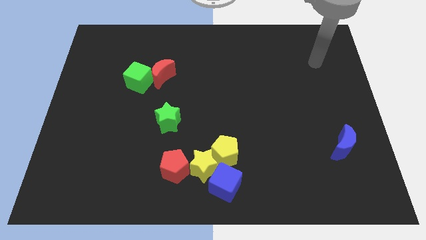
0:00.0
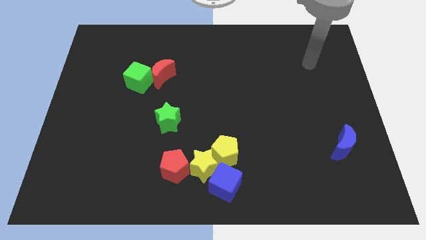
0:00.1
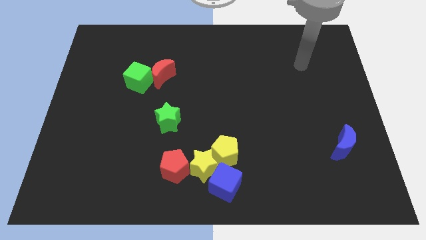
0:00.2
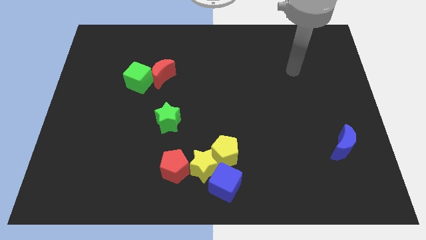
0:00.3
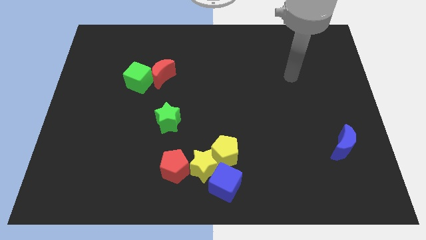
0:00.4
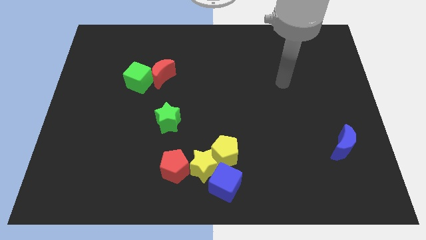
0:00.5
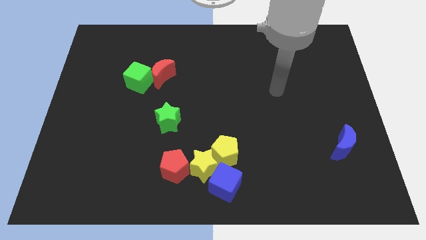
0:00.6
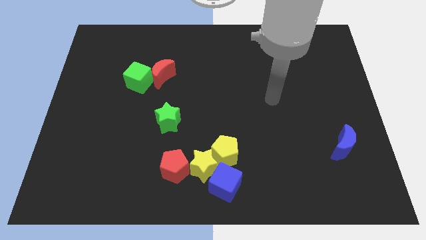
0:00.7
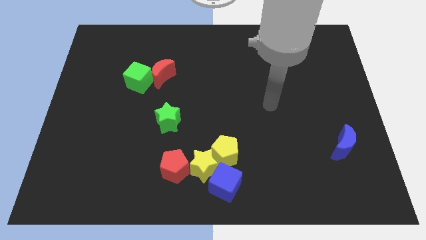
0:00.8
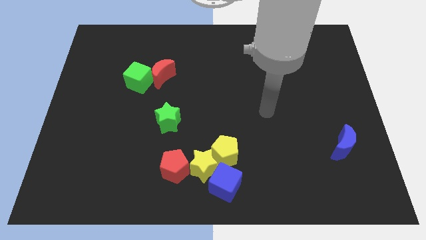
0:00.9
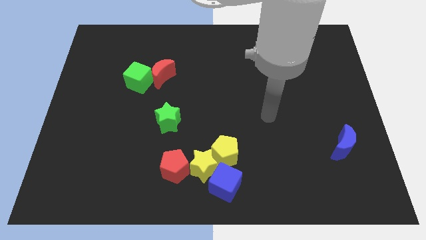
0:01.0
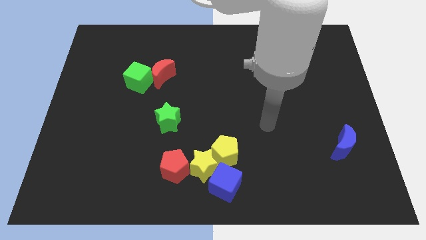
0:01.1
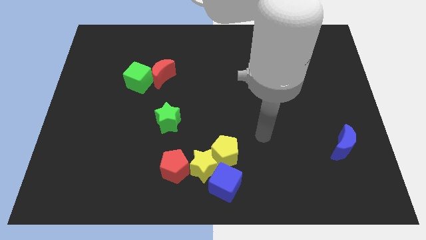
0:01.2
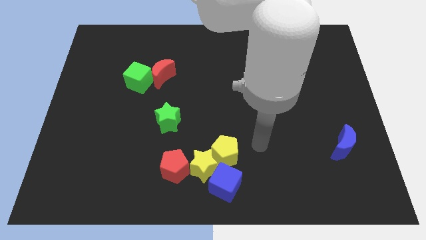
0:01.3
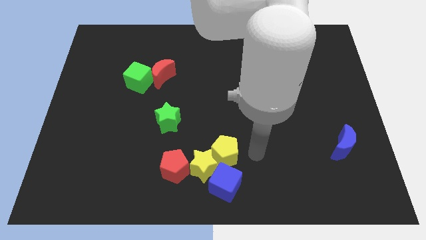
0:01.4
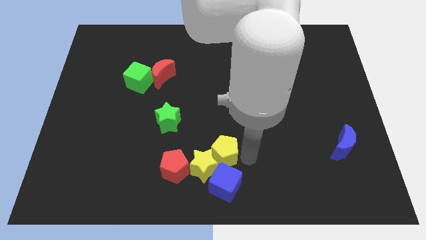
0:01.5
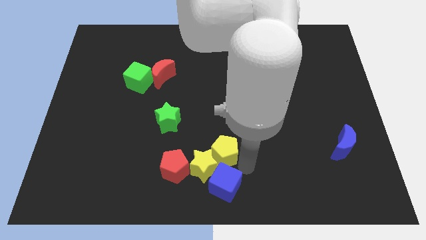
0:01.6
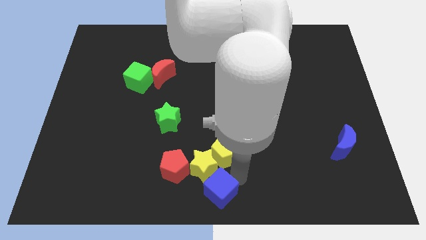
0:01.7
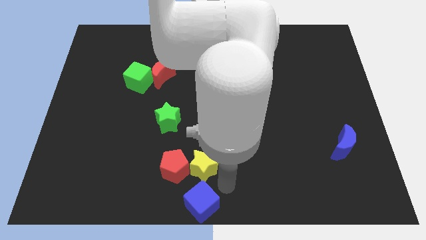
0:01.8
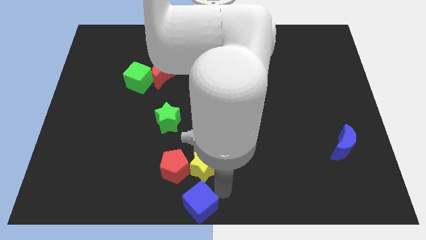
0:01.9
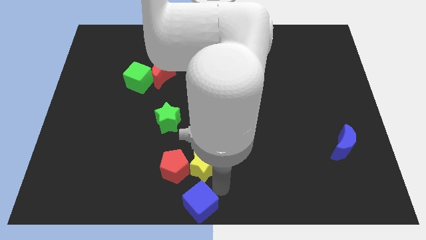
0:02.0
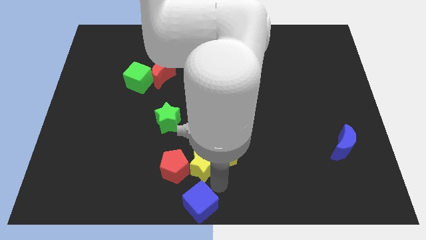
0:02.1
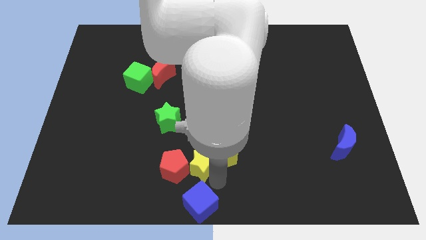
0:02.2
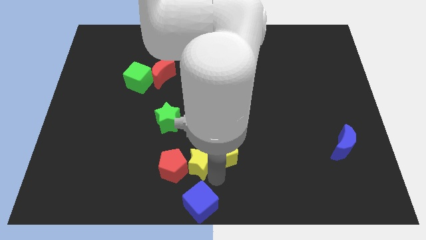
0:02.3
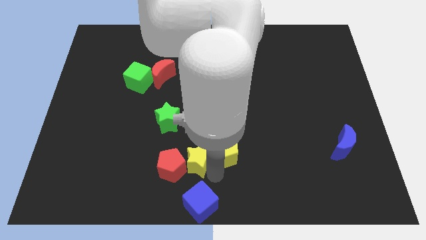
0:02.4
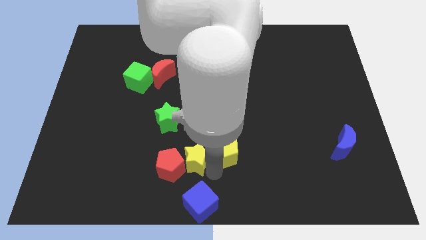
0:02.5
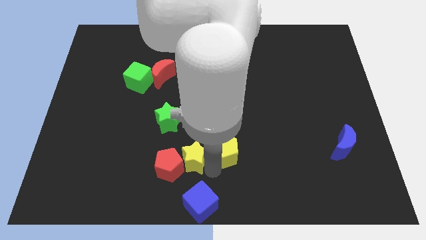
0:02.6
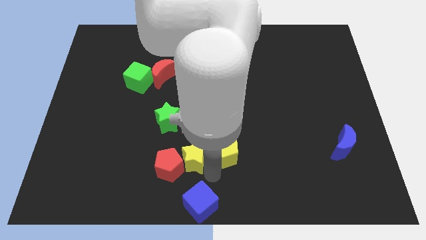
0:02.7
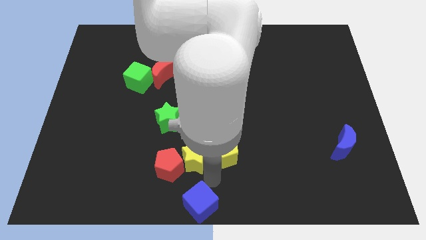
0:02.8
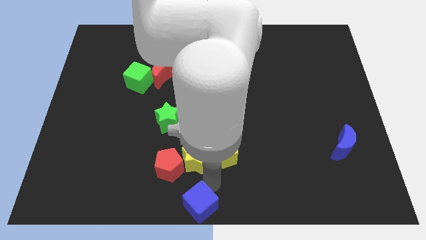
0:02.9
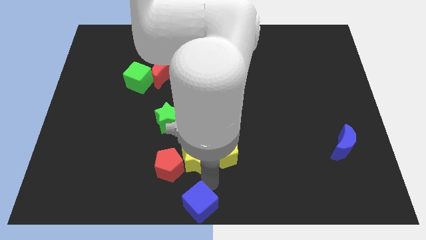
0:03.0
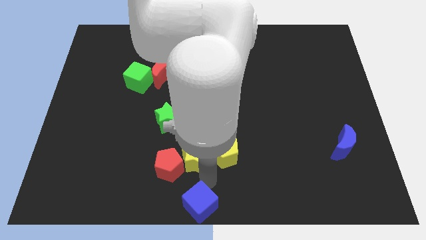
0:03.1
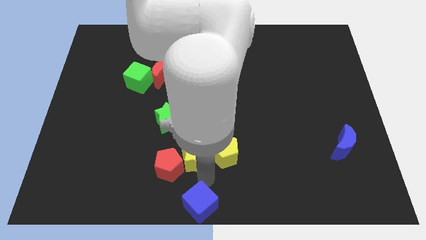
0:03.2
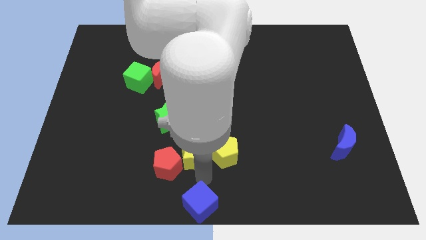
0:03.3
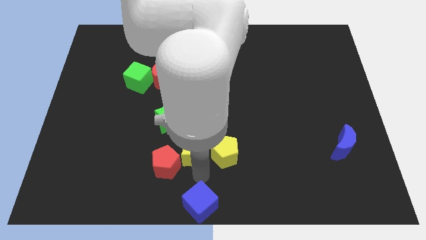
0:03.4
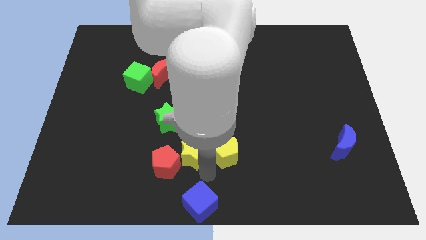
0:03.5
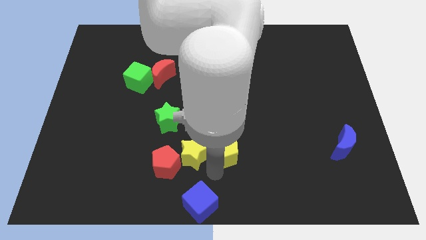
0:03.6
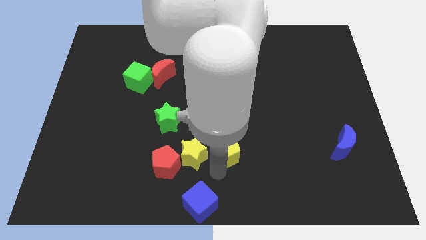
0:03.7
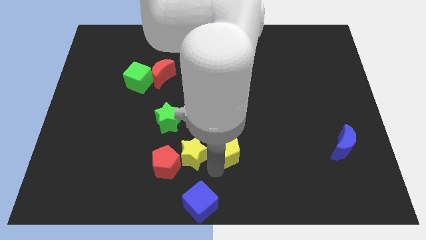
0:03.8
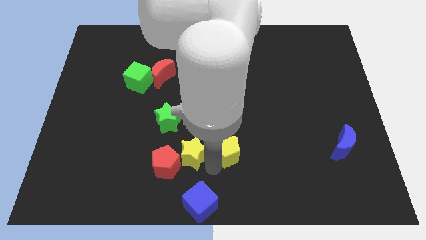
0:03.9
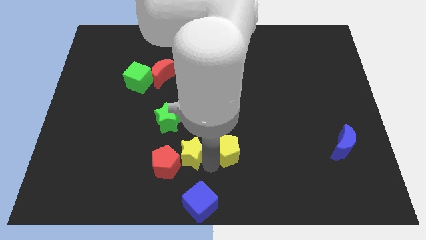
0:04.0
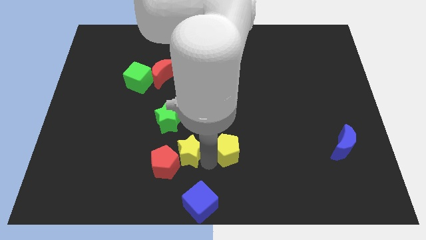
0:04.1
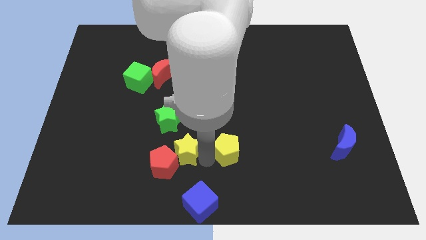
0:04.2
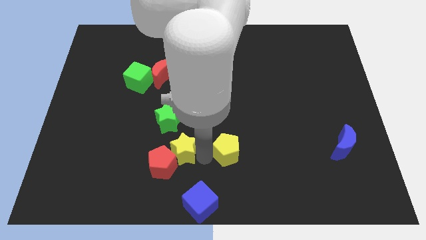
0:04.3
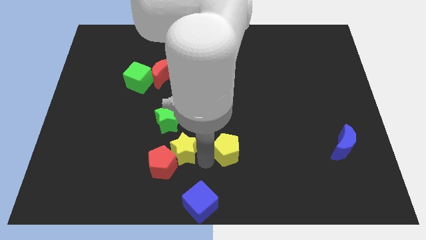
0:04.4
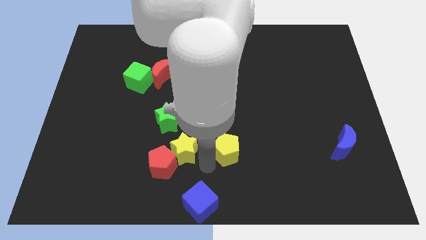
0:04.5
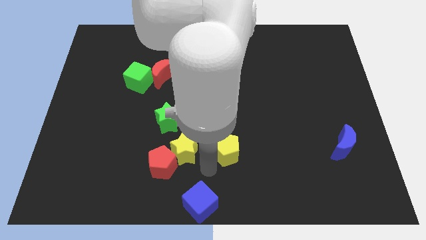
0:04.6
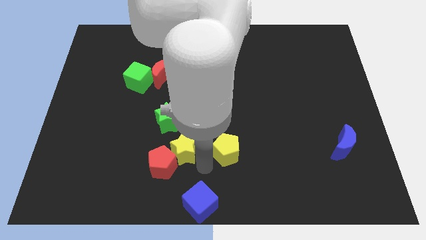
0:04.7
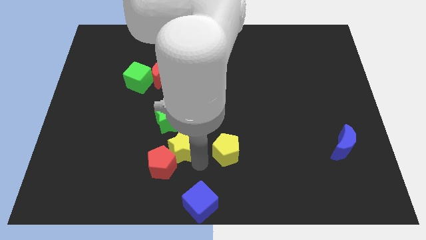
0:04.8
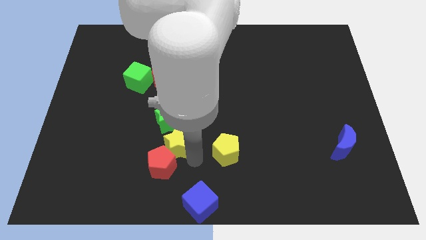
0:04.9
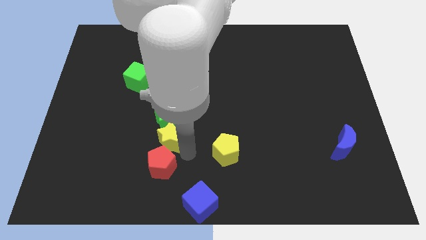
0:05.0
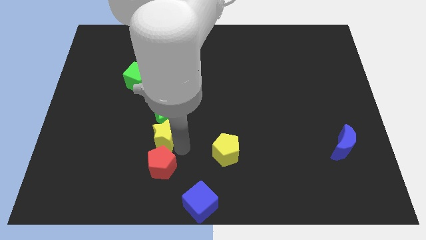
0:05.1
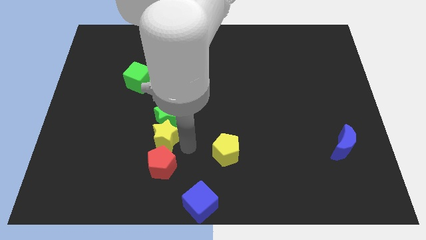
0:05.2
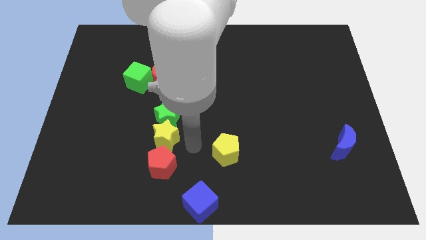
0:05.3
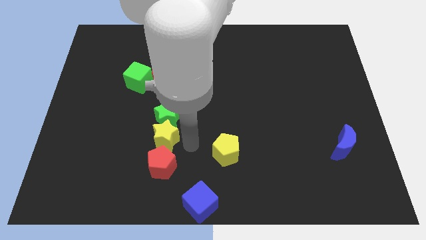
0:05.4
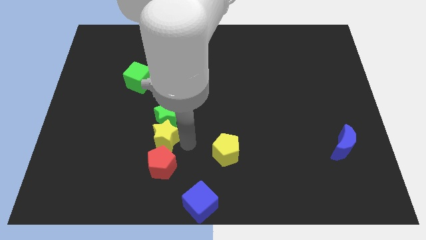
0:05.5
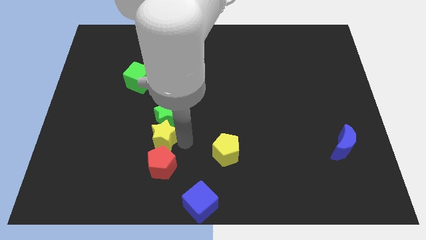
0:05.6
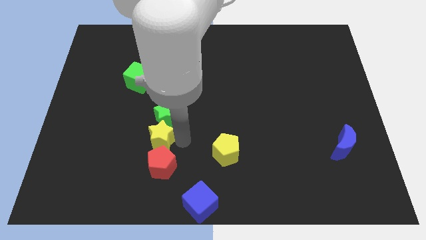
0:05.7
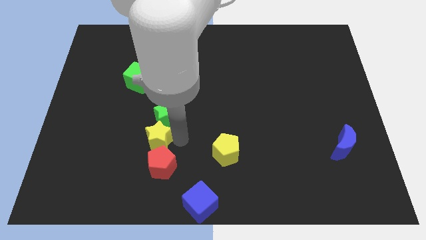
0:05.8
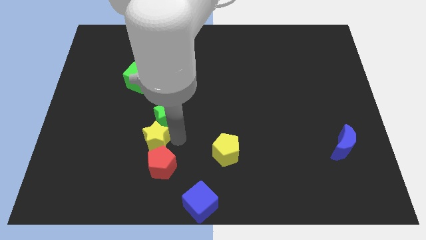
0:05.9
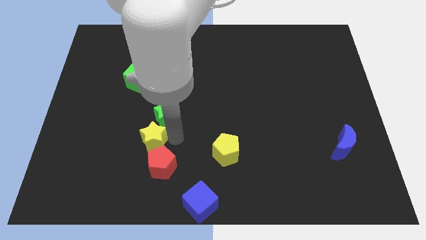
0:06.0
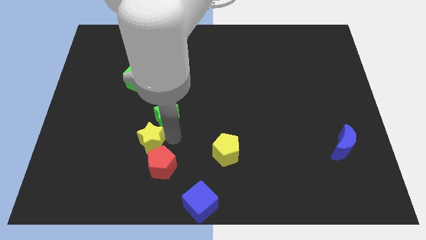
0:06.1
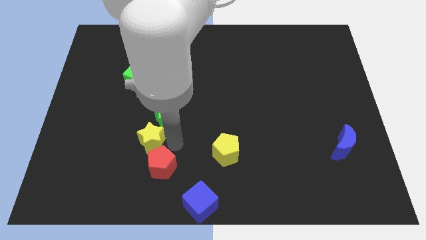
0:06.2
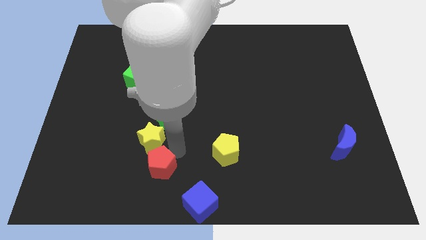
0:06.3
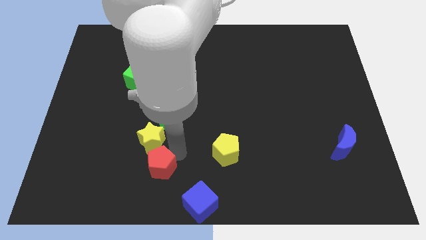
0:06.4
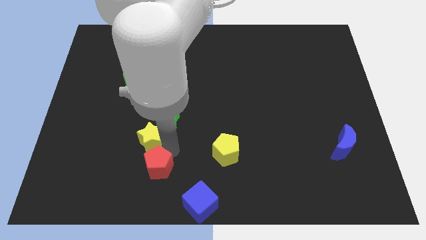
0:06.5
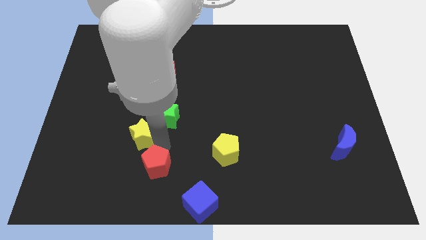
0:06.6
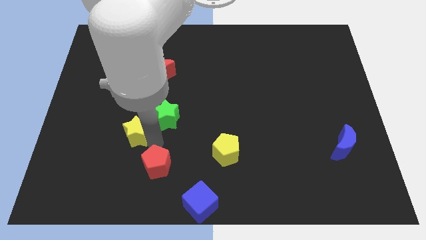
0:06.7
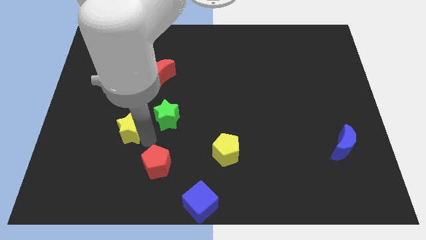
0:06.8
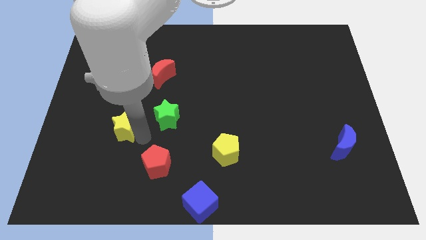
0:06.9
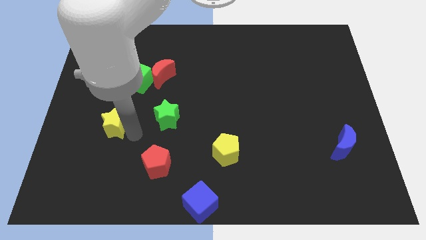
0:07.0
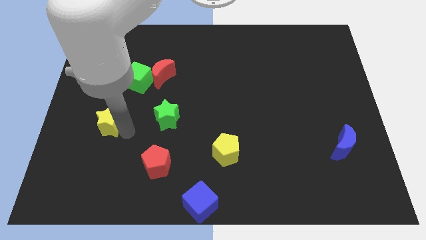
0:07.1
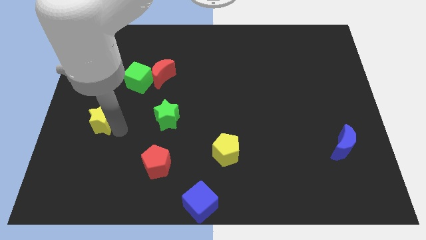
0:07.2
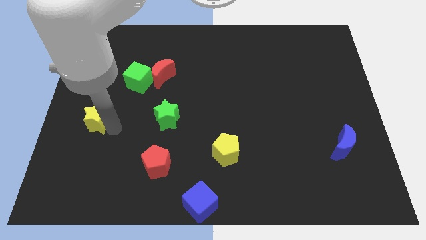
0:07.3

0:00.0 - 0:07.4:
slide the yellow star to the left side

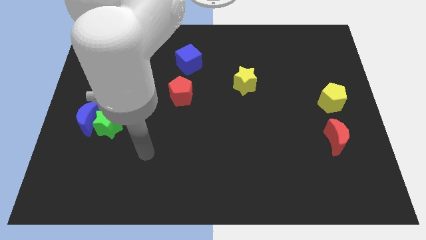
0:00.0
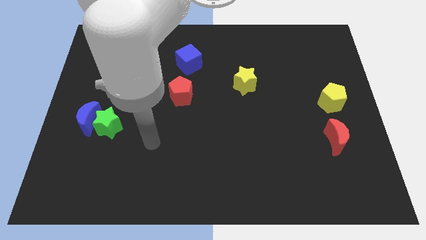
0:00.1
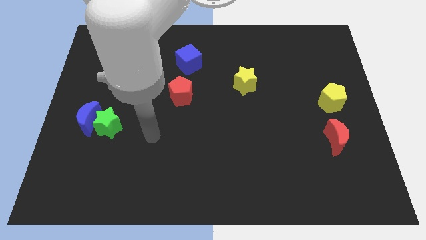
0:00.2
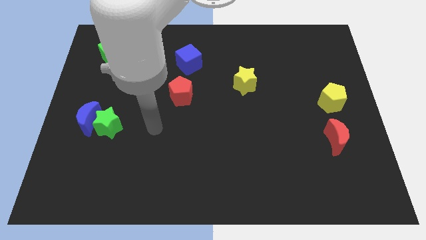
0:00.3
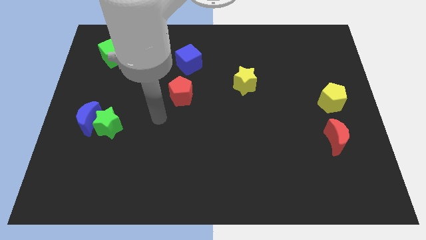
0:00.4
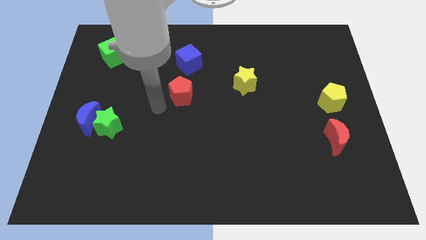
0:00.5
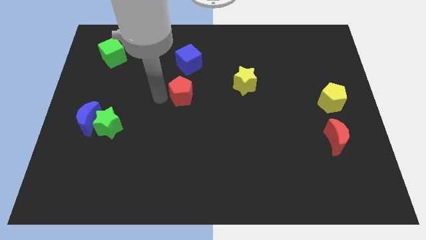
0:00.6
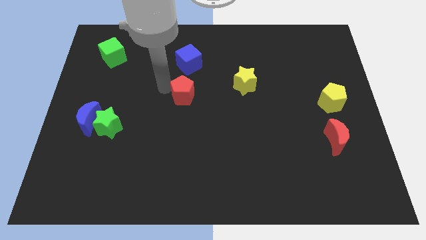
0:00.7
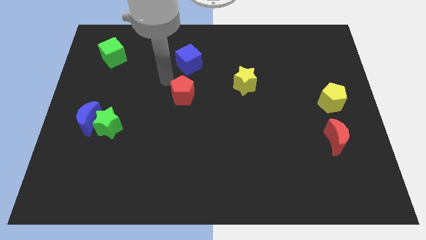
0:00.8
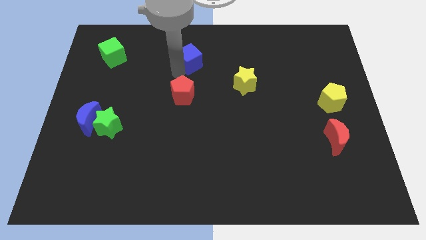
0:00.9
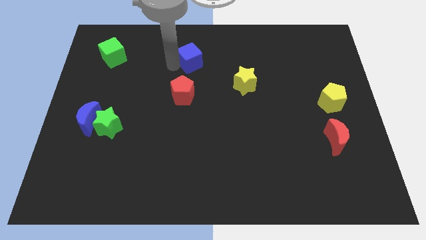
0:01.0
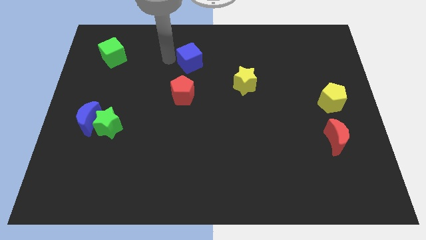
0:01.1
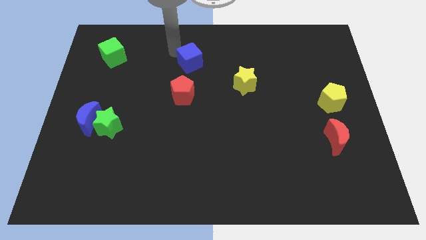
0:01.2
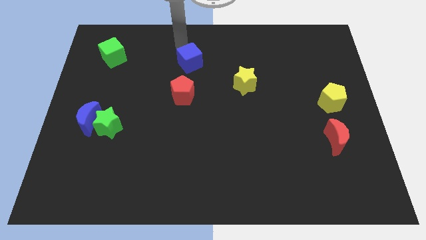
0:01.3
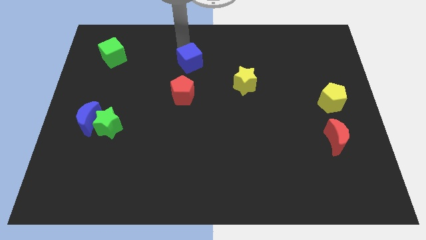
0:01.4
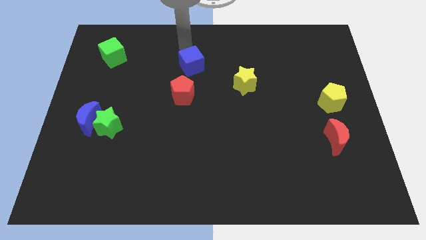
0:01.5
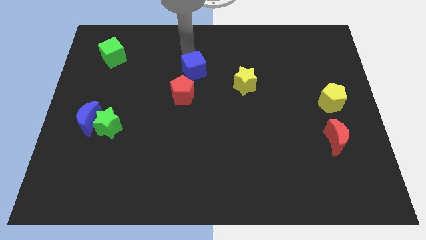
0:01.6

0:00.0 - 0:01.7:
move the blue cube to the center of the board
